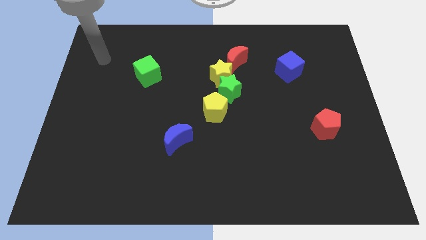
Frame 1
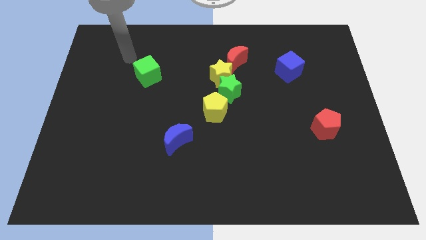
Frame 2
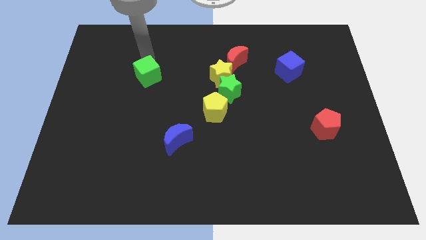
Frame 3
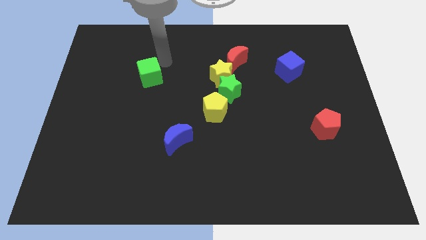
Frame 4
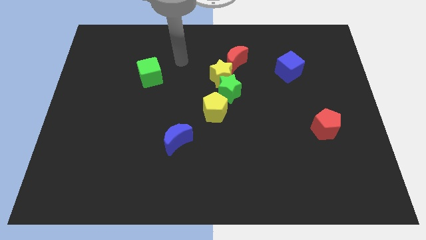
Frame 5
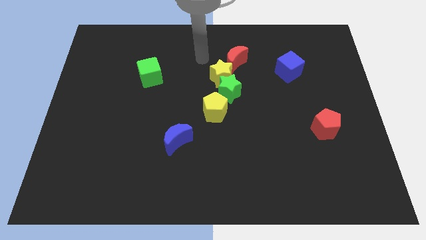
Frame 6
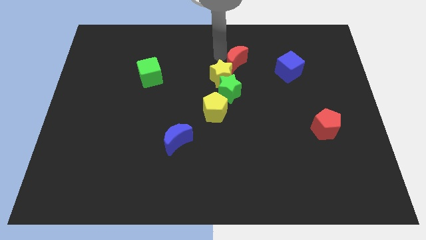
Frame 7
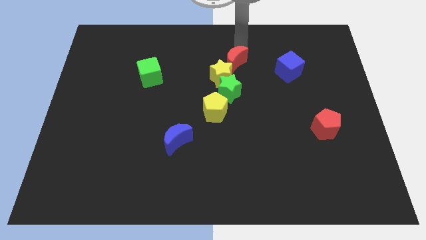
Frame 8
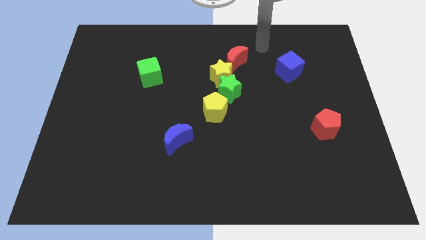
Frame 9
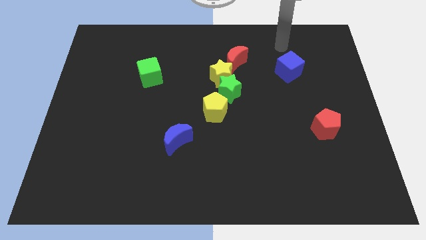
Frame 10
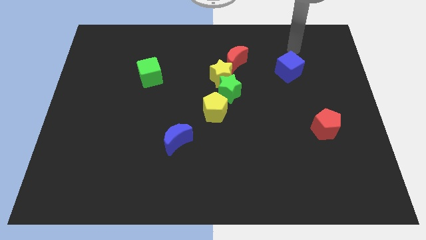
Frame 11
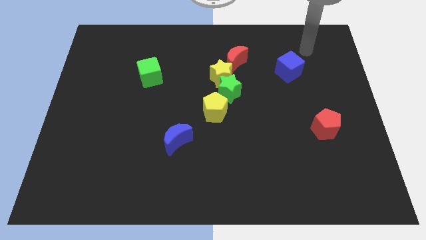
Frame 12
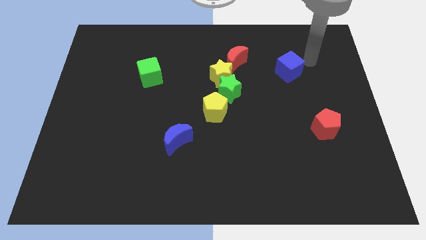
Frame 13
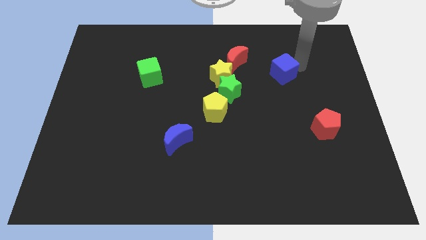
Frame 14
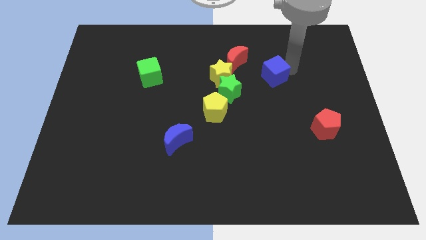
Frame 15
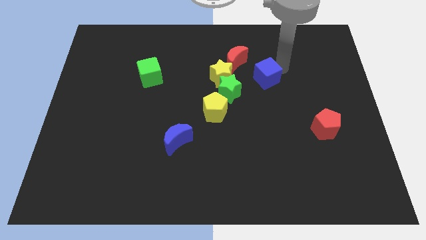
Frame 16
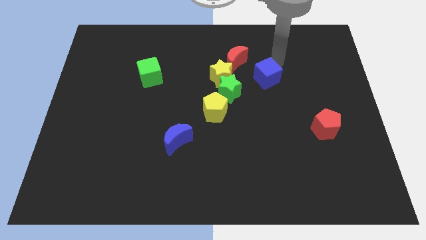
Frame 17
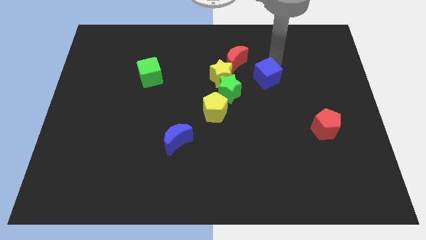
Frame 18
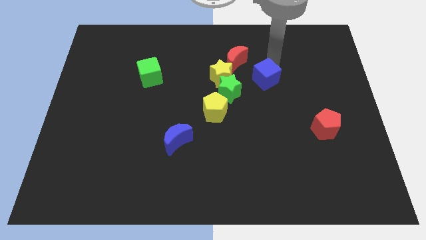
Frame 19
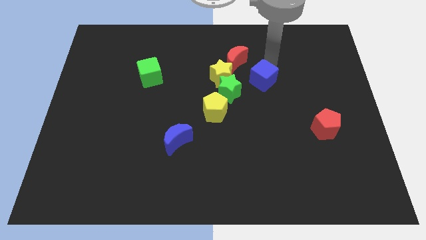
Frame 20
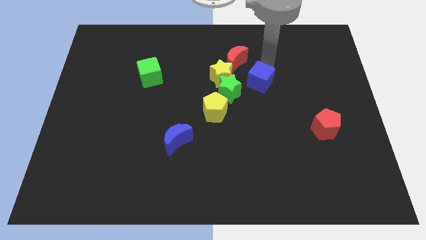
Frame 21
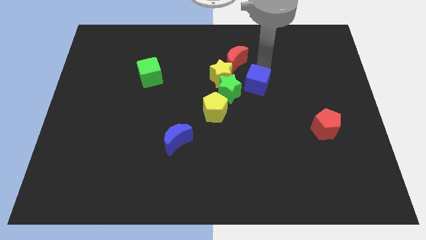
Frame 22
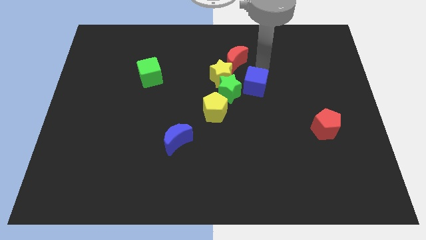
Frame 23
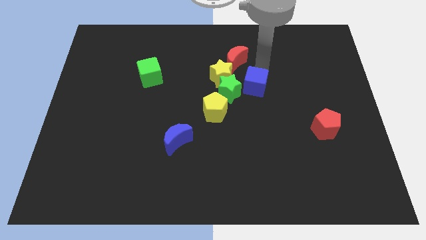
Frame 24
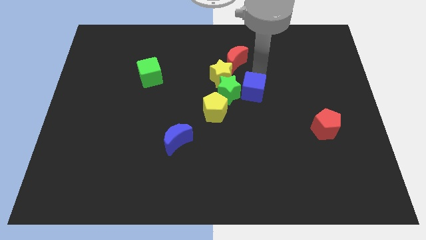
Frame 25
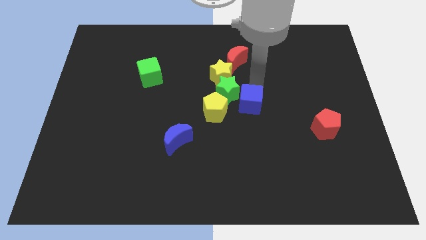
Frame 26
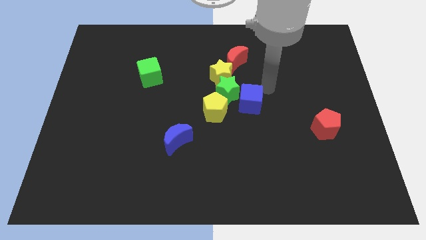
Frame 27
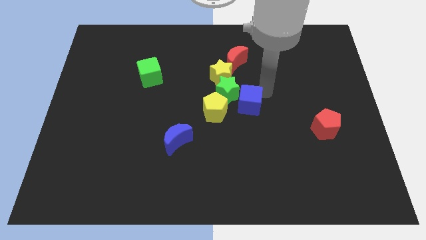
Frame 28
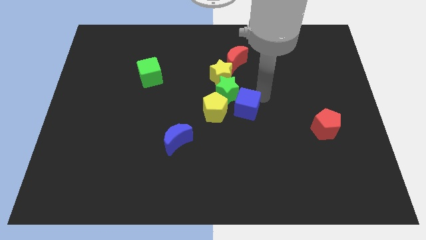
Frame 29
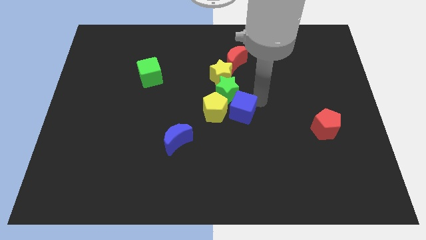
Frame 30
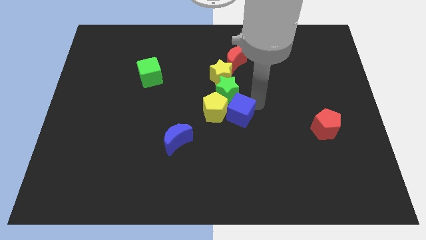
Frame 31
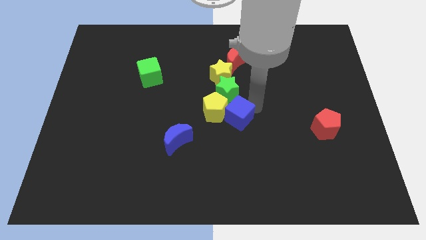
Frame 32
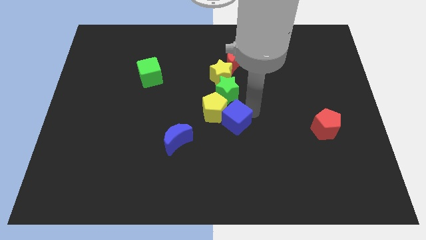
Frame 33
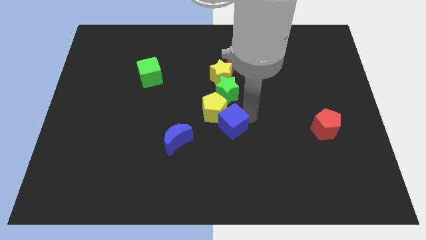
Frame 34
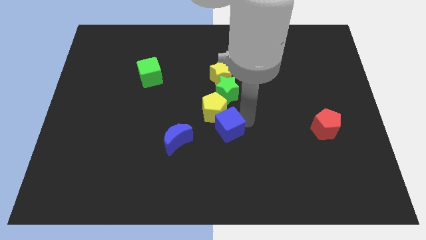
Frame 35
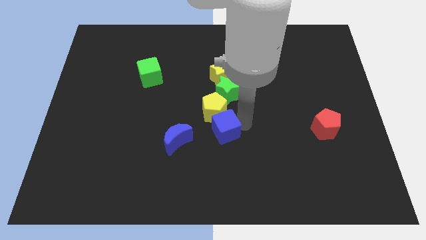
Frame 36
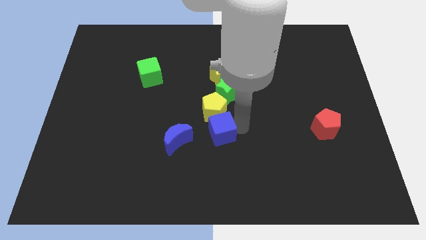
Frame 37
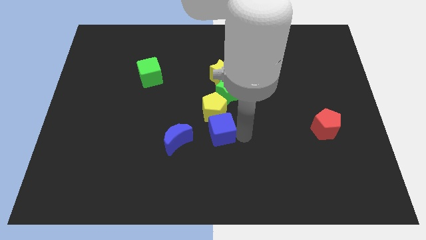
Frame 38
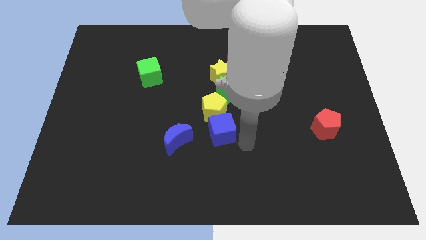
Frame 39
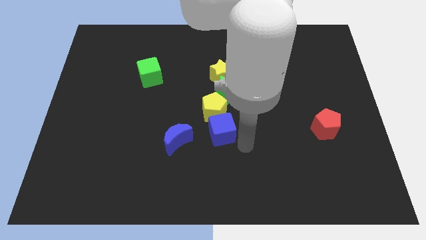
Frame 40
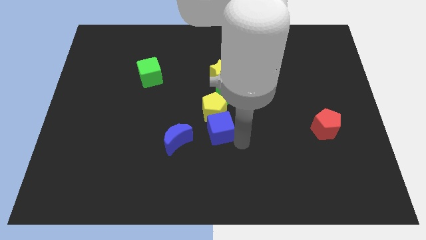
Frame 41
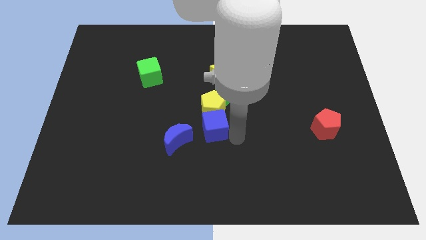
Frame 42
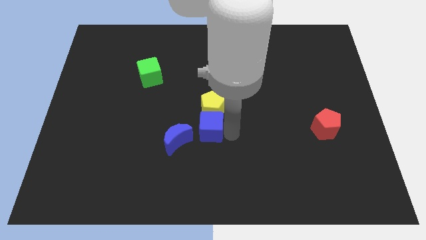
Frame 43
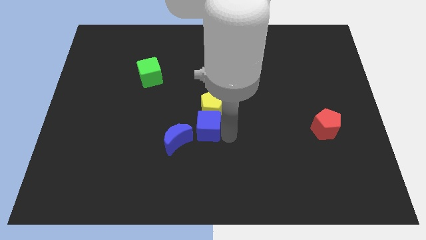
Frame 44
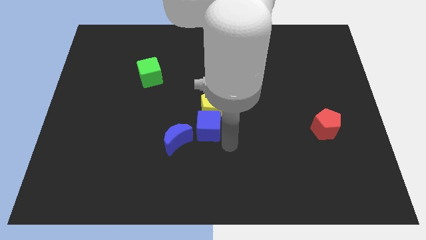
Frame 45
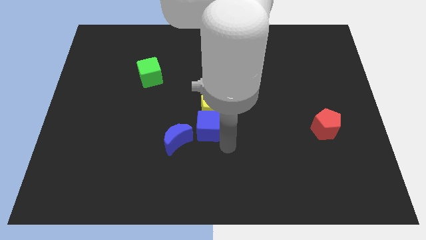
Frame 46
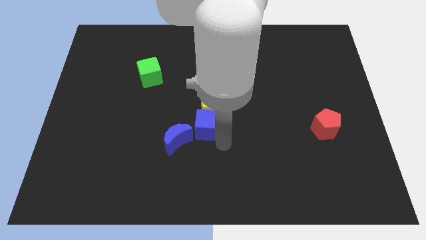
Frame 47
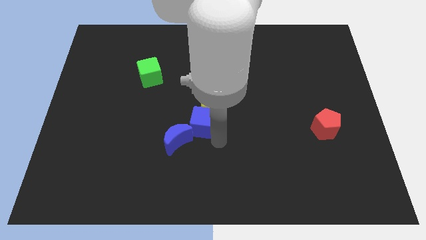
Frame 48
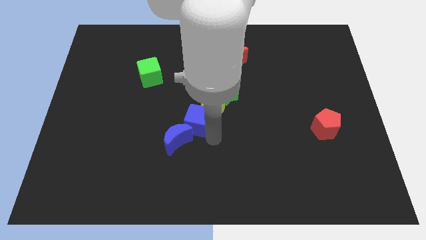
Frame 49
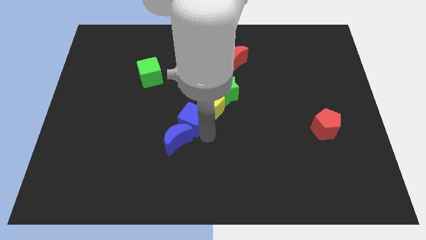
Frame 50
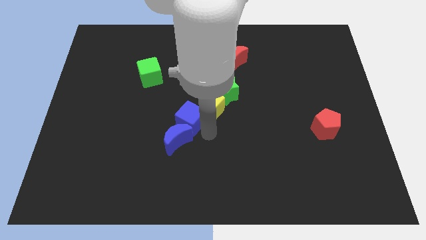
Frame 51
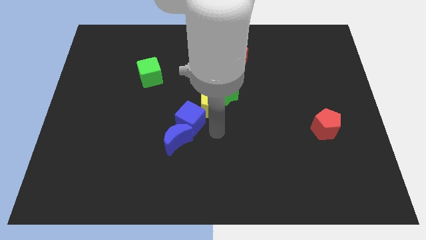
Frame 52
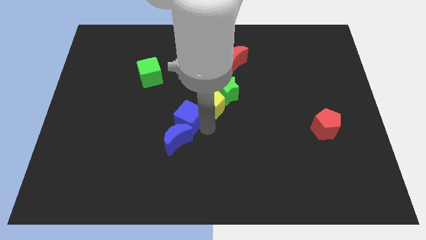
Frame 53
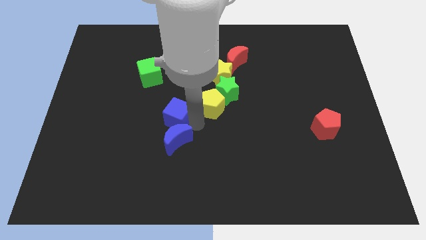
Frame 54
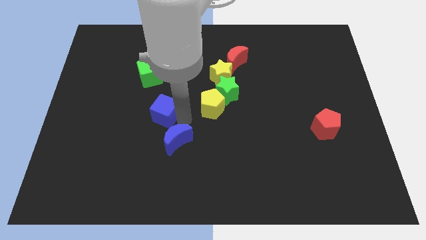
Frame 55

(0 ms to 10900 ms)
put the blue cube to the bottom side of the green cube

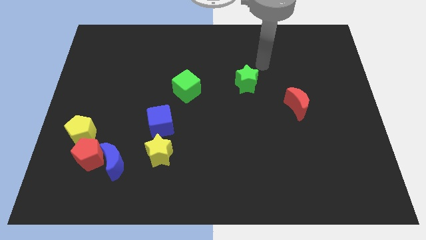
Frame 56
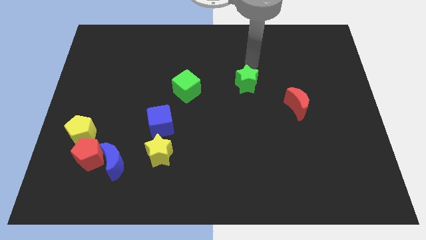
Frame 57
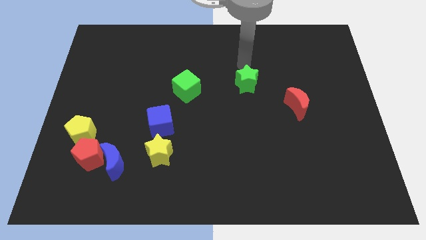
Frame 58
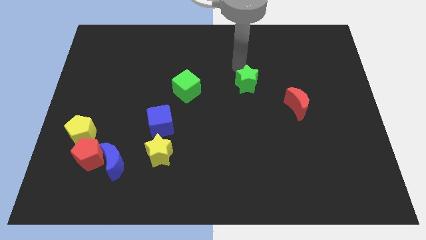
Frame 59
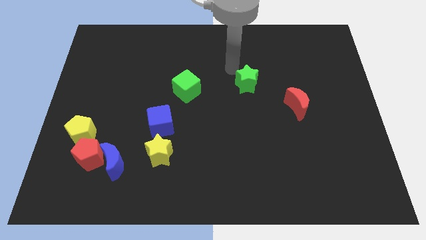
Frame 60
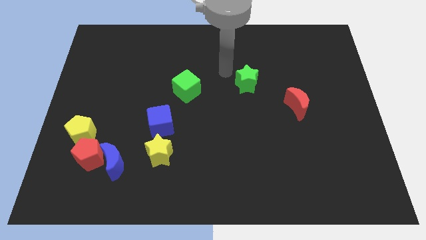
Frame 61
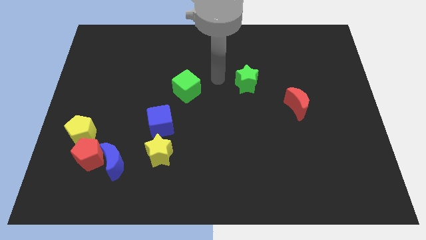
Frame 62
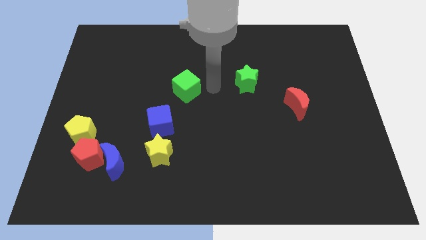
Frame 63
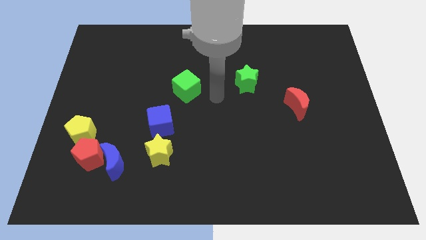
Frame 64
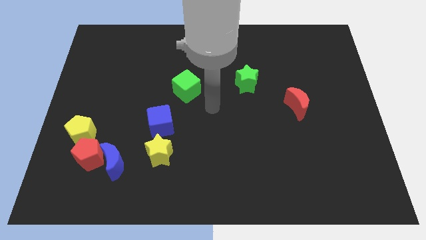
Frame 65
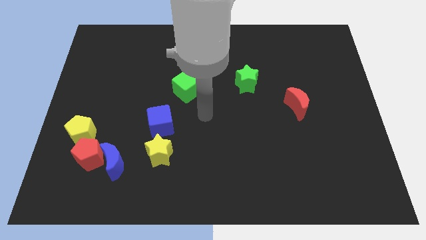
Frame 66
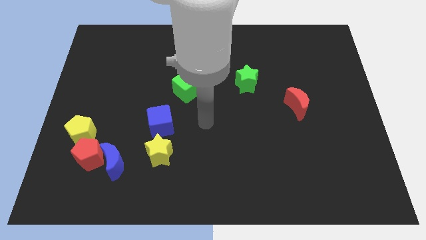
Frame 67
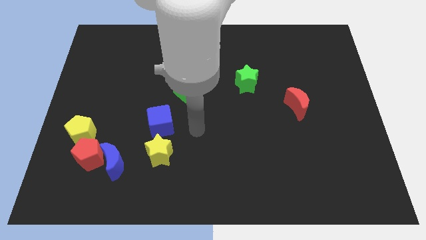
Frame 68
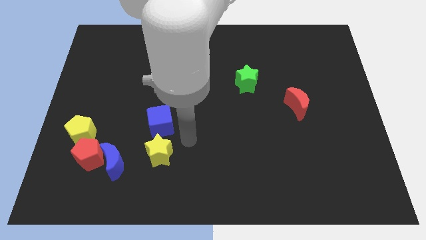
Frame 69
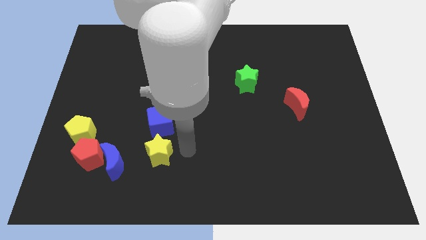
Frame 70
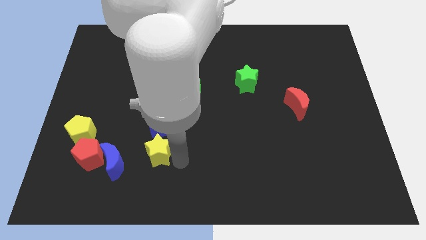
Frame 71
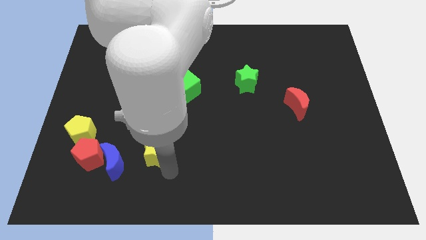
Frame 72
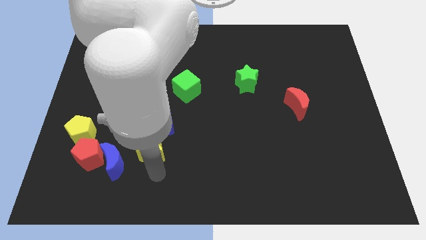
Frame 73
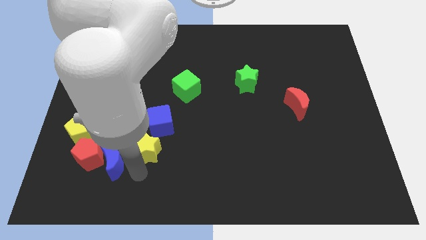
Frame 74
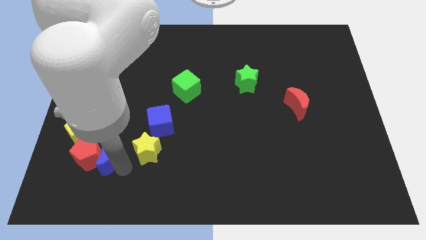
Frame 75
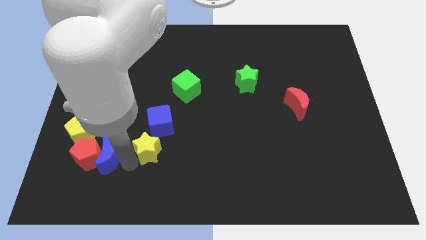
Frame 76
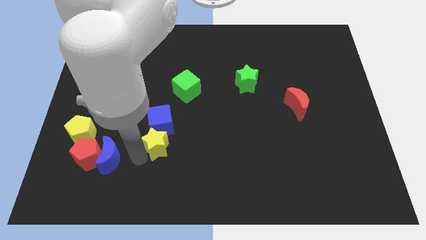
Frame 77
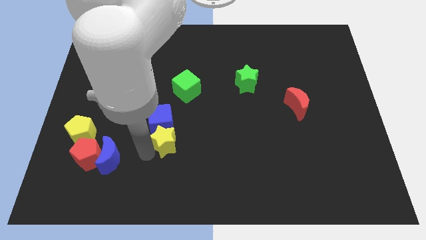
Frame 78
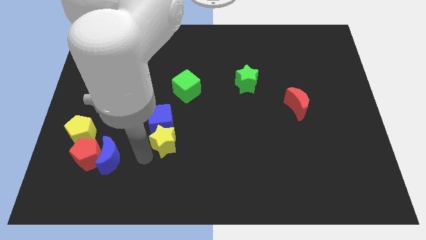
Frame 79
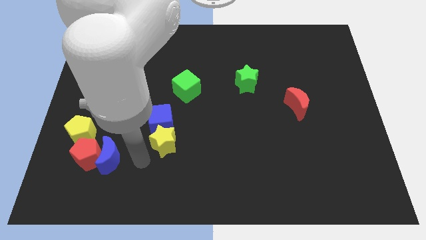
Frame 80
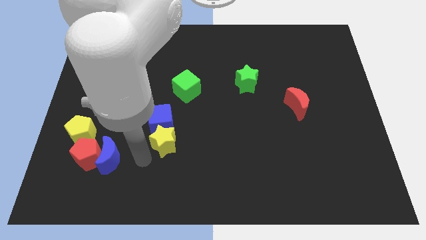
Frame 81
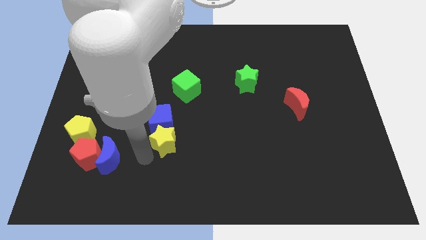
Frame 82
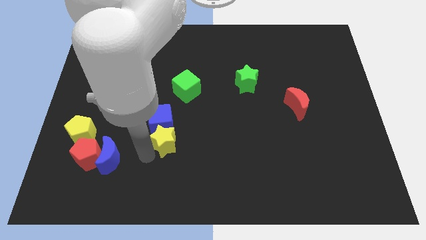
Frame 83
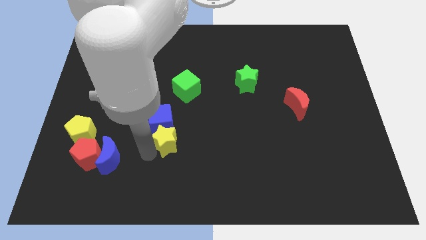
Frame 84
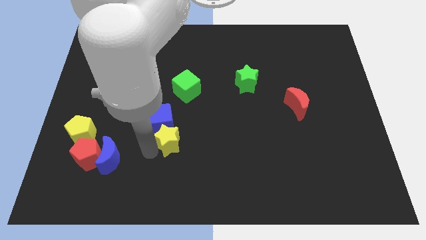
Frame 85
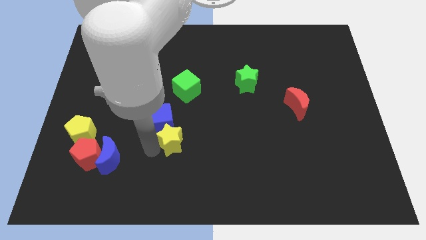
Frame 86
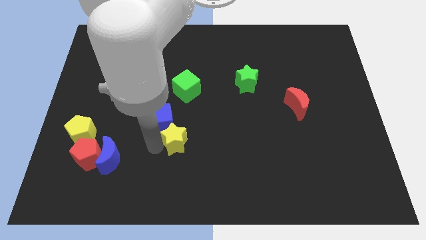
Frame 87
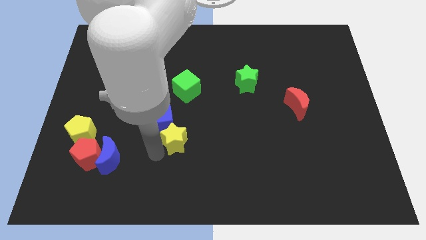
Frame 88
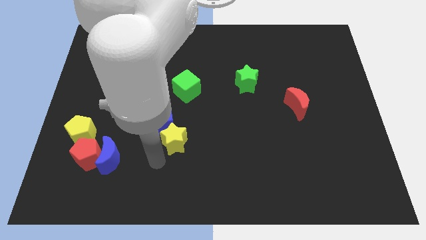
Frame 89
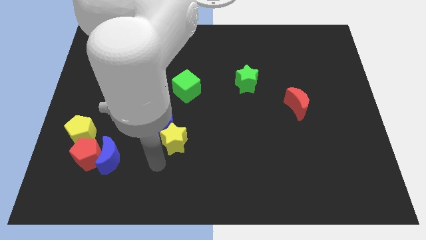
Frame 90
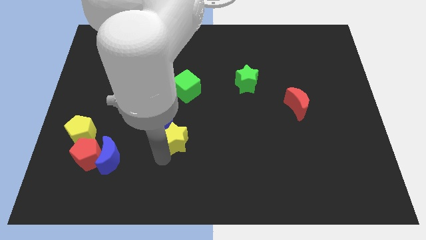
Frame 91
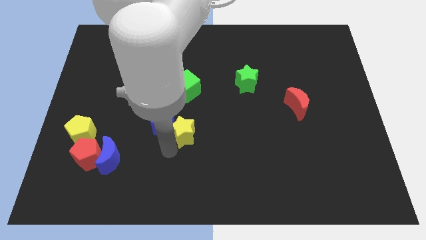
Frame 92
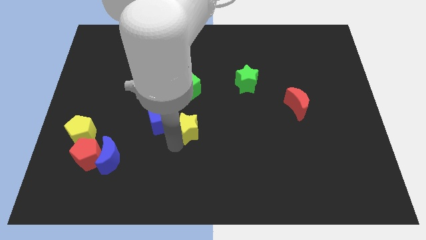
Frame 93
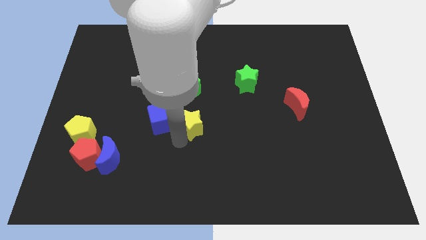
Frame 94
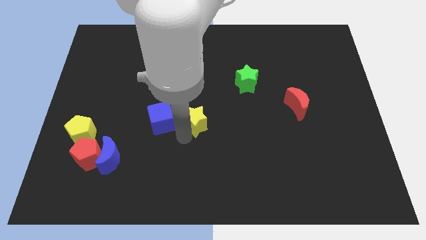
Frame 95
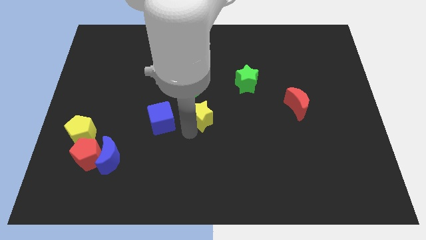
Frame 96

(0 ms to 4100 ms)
slide the yellow star to the bottom right side of the green cube
